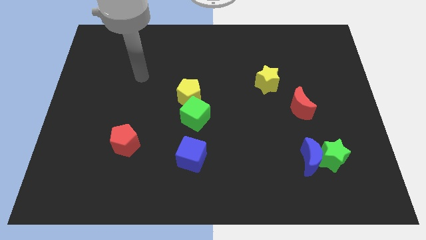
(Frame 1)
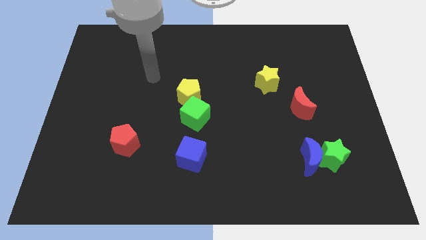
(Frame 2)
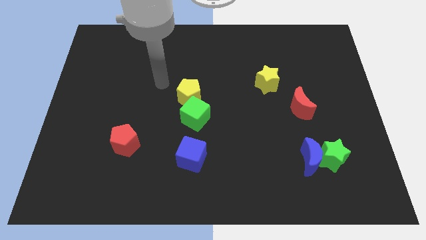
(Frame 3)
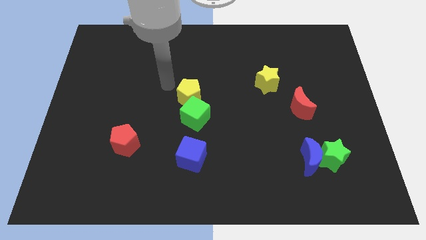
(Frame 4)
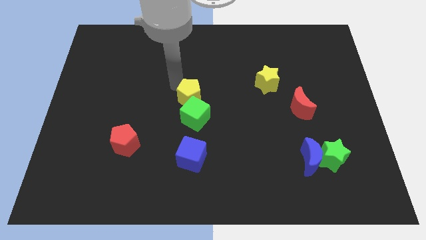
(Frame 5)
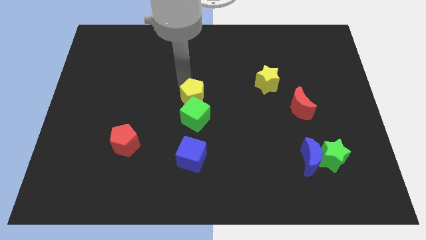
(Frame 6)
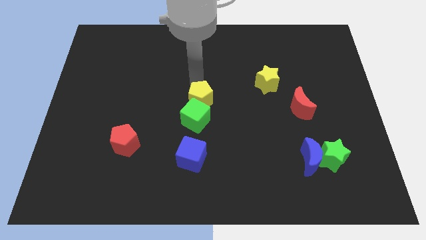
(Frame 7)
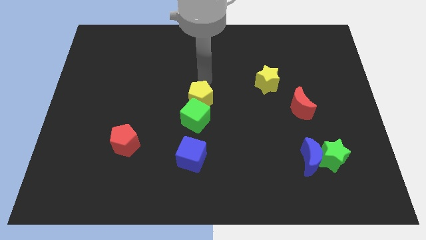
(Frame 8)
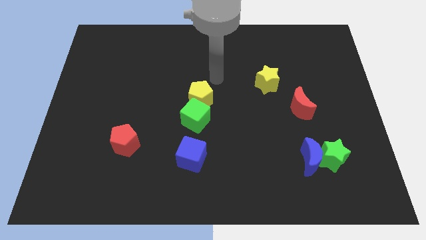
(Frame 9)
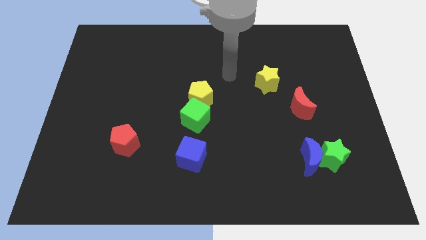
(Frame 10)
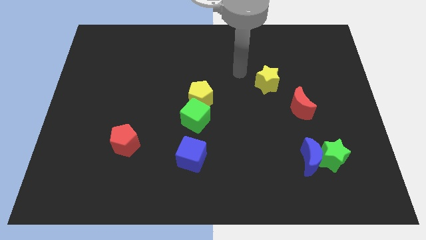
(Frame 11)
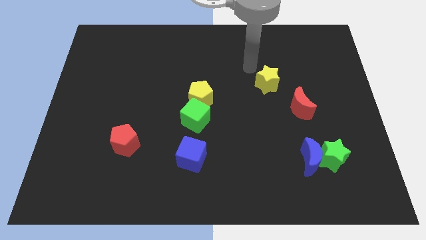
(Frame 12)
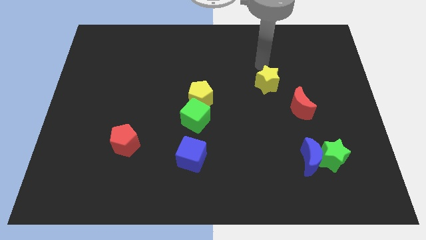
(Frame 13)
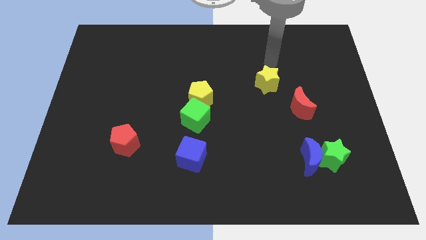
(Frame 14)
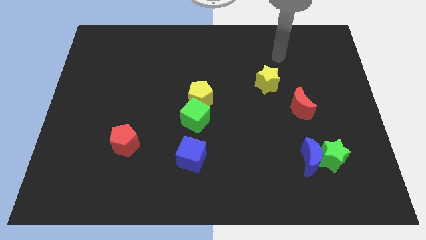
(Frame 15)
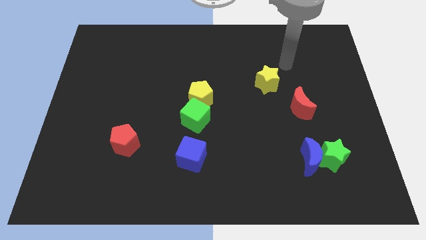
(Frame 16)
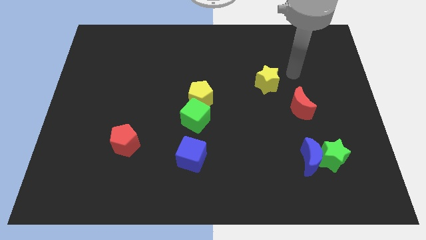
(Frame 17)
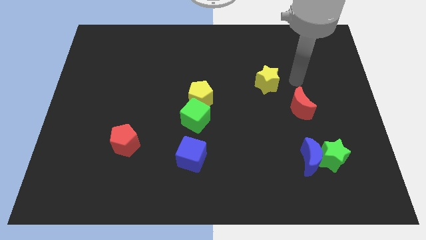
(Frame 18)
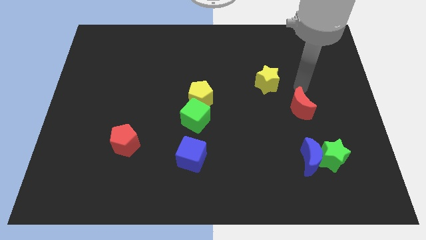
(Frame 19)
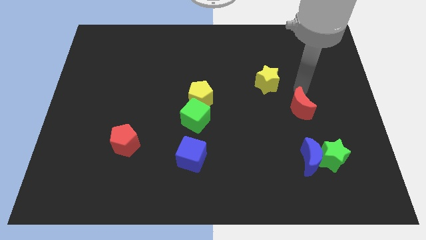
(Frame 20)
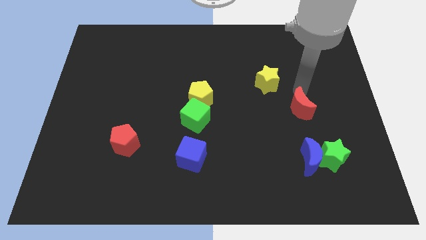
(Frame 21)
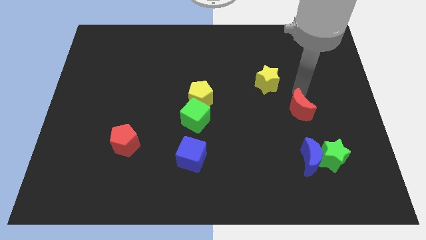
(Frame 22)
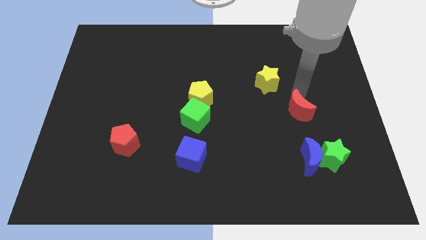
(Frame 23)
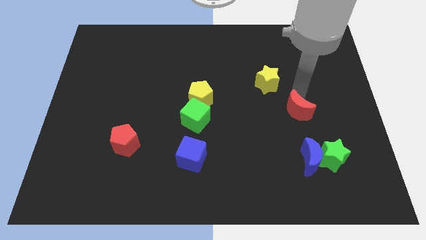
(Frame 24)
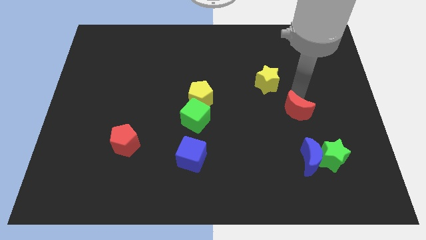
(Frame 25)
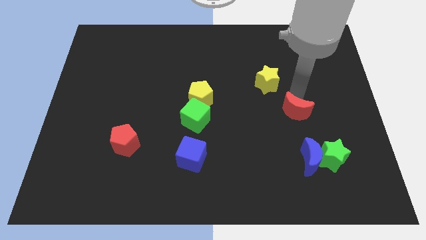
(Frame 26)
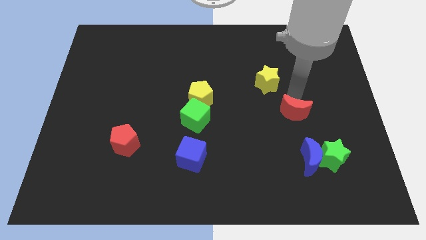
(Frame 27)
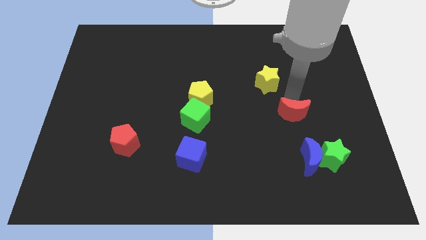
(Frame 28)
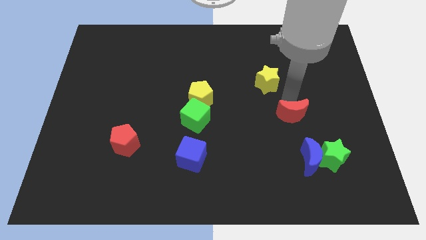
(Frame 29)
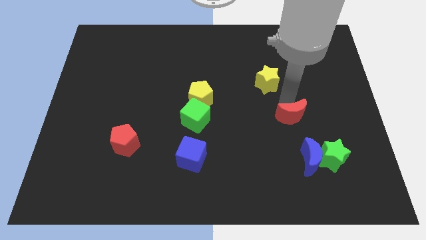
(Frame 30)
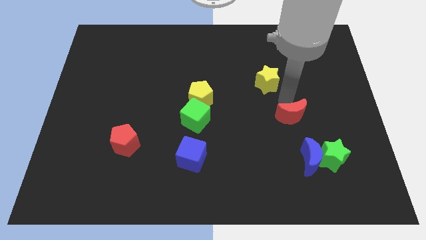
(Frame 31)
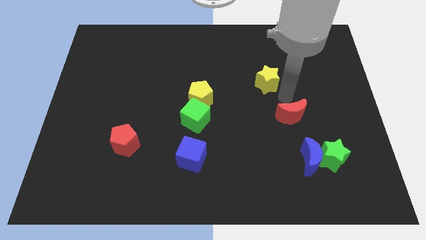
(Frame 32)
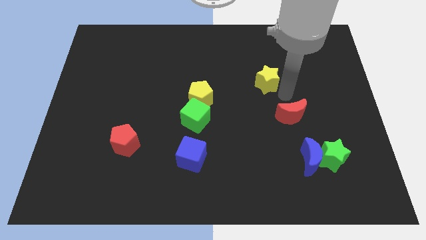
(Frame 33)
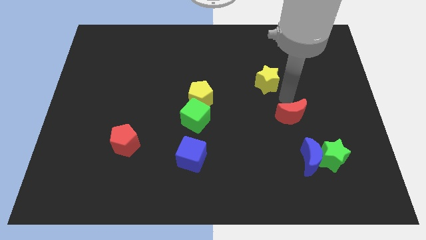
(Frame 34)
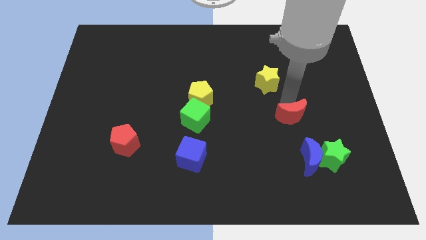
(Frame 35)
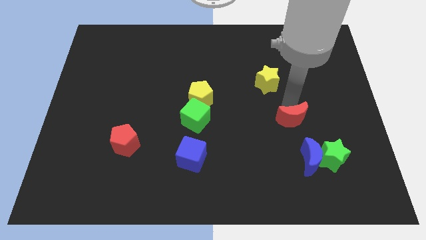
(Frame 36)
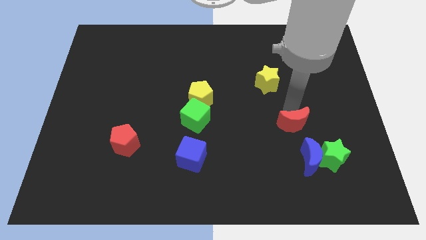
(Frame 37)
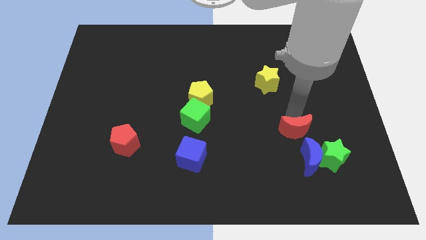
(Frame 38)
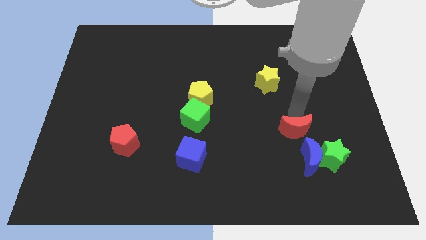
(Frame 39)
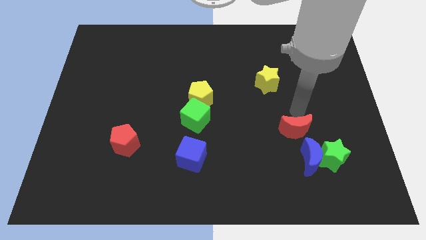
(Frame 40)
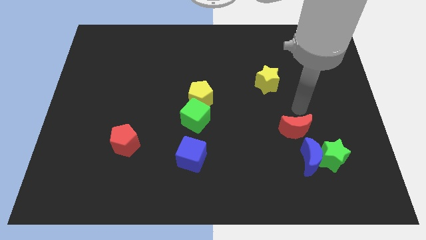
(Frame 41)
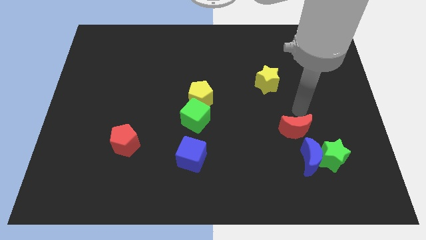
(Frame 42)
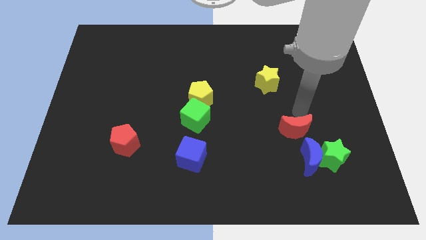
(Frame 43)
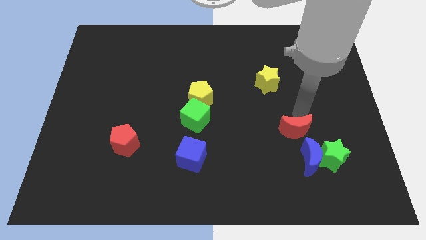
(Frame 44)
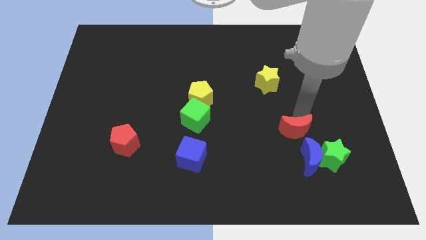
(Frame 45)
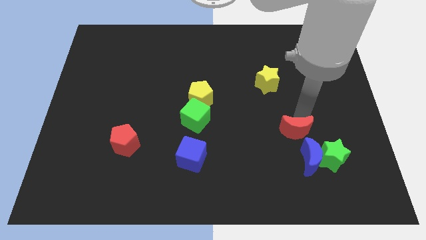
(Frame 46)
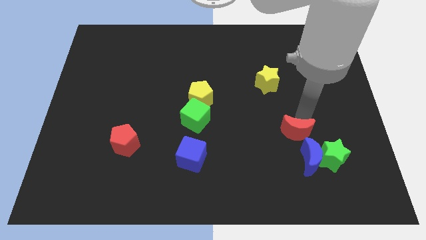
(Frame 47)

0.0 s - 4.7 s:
slightly push the red moon downwards

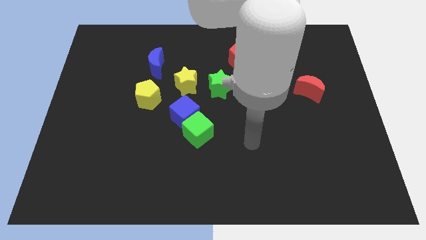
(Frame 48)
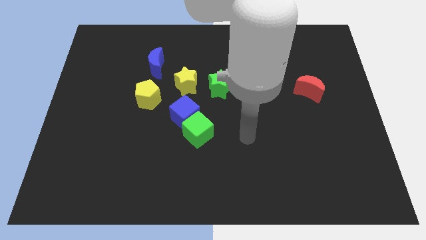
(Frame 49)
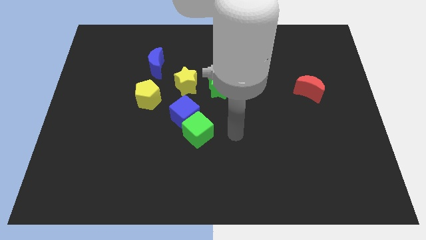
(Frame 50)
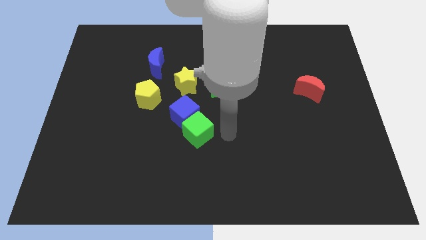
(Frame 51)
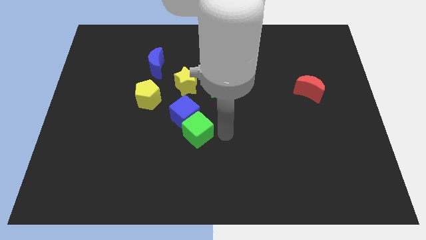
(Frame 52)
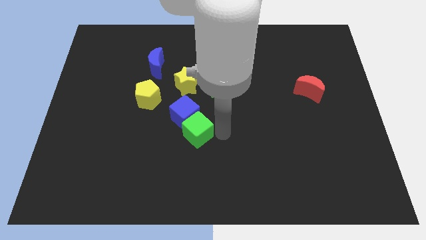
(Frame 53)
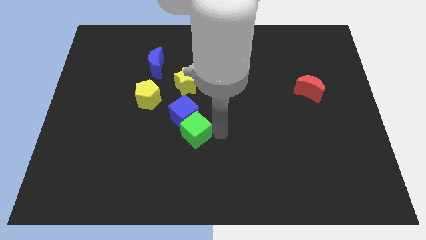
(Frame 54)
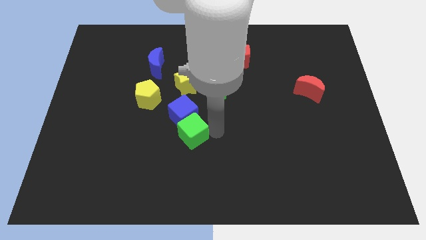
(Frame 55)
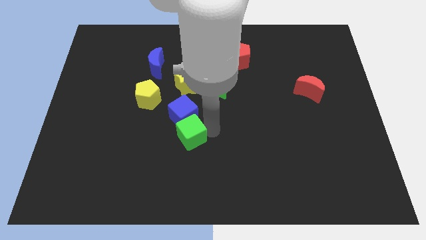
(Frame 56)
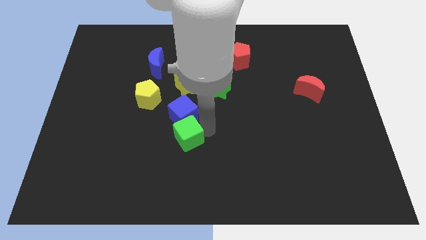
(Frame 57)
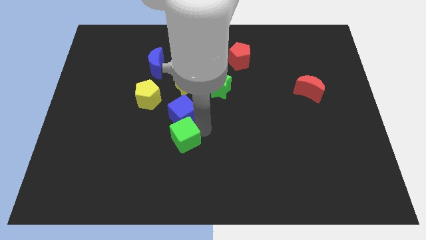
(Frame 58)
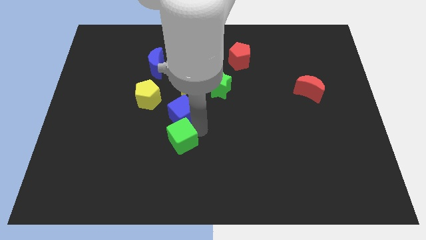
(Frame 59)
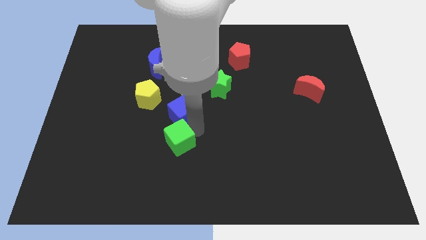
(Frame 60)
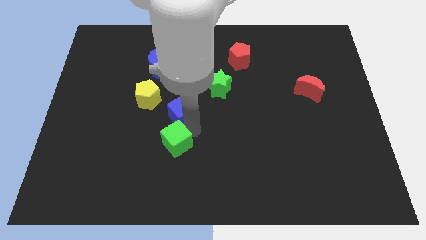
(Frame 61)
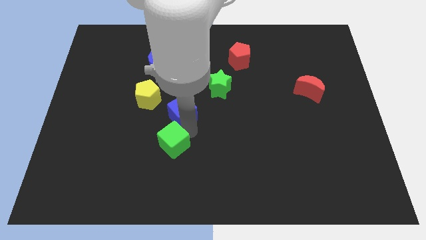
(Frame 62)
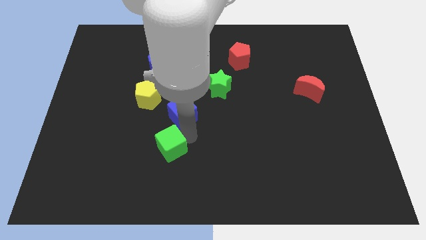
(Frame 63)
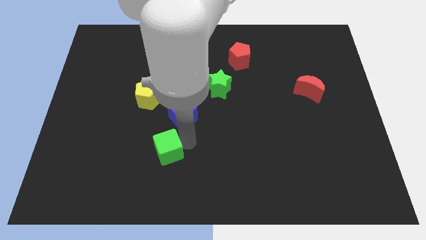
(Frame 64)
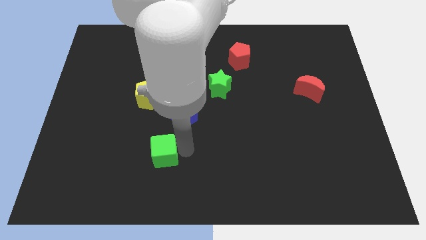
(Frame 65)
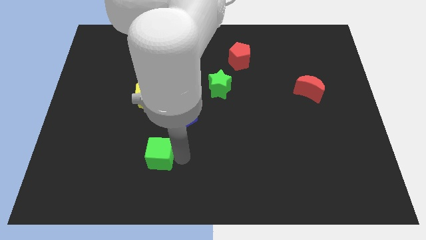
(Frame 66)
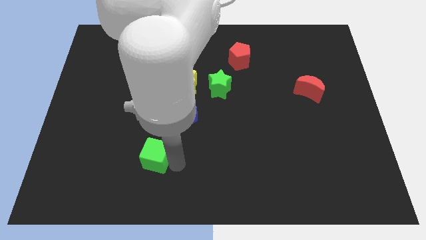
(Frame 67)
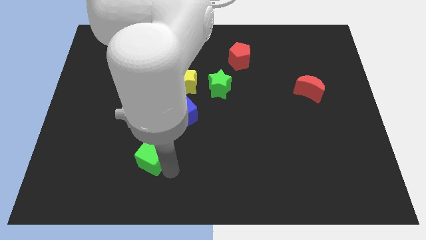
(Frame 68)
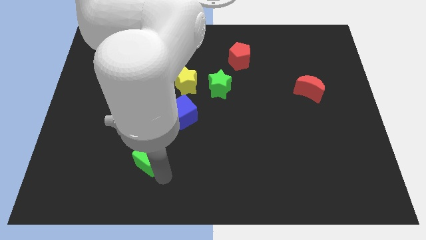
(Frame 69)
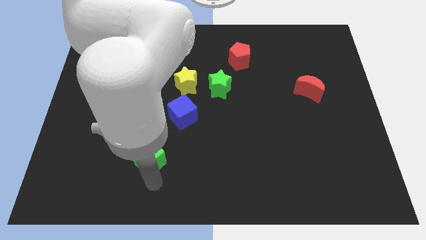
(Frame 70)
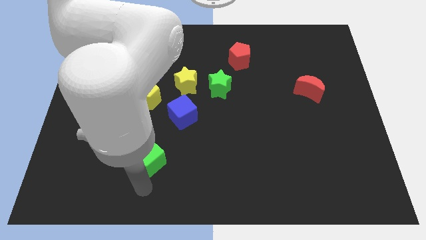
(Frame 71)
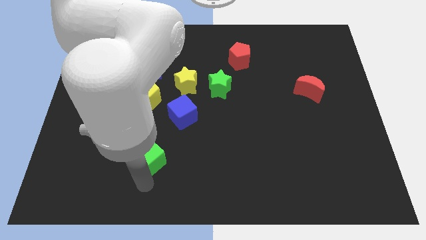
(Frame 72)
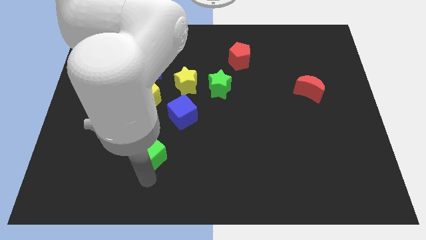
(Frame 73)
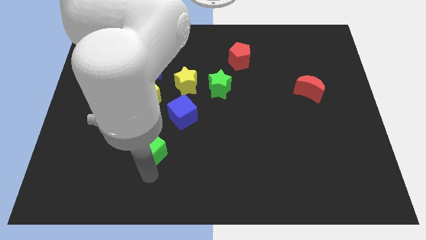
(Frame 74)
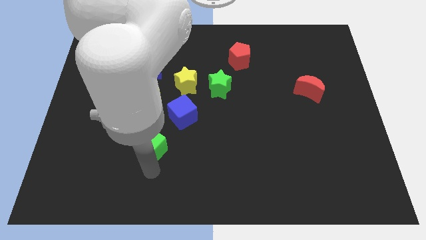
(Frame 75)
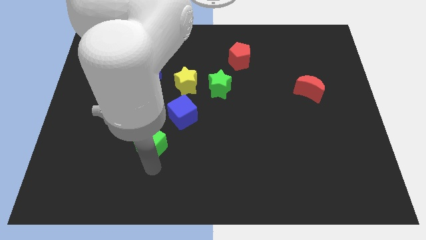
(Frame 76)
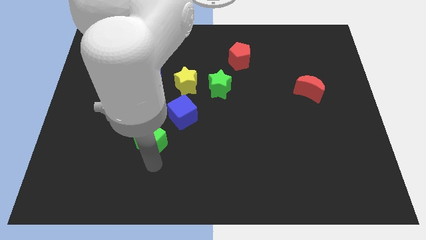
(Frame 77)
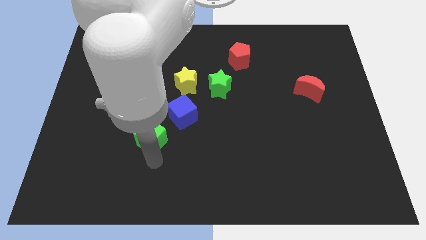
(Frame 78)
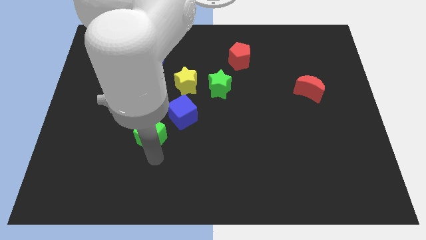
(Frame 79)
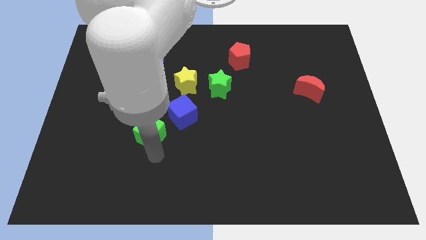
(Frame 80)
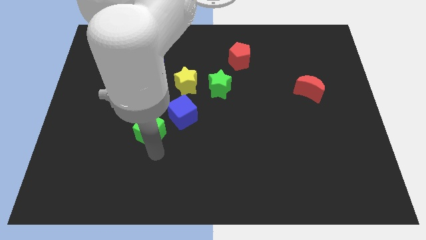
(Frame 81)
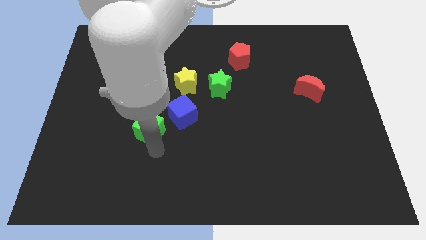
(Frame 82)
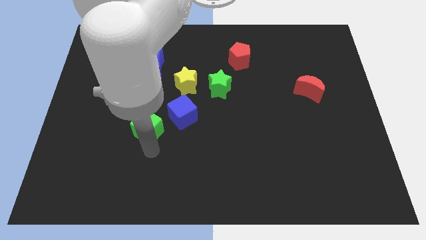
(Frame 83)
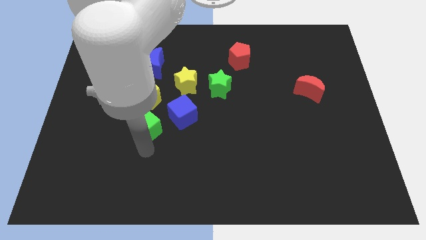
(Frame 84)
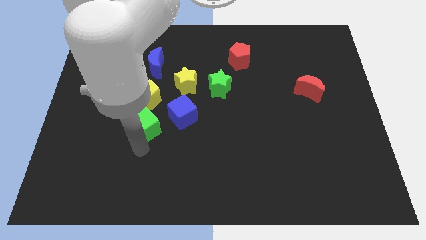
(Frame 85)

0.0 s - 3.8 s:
slide the green cube somewhat up and left diagonally
